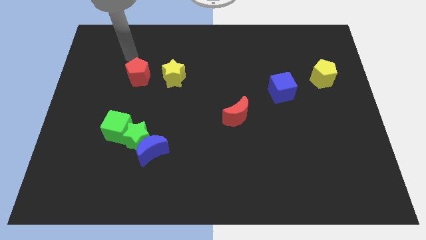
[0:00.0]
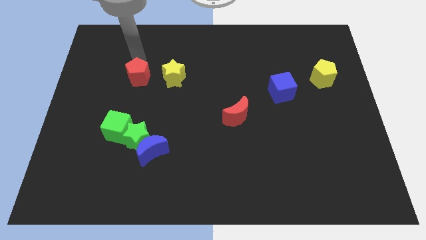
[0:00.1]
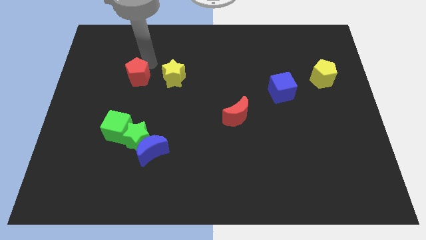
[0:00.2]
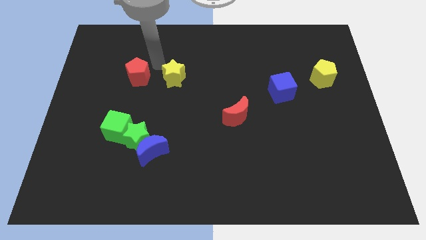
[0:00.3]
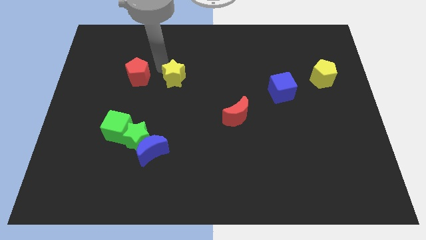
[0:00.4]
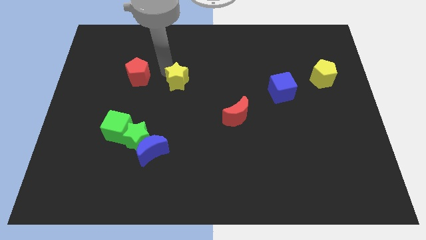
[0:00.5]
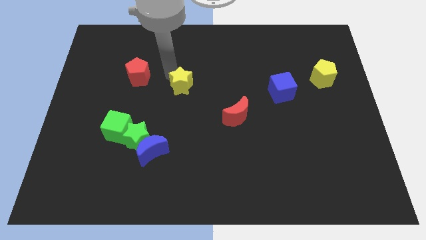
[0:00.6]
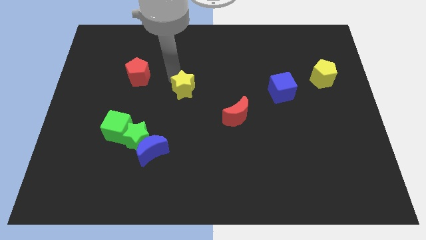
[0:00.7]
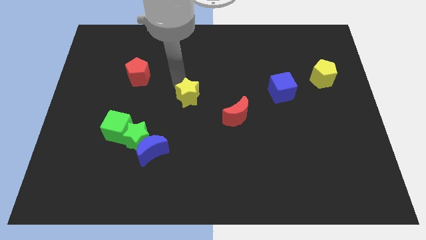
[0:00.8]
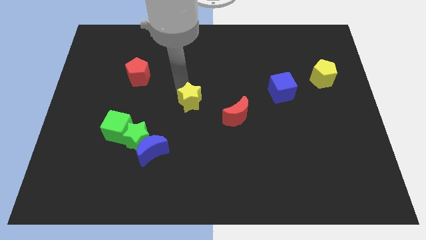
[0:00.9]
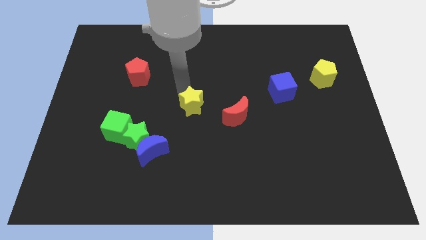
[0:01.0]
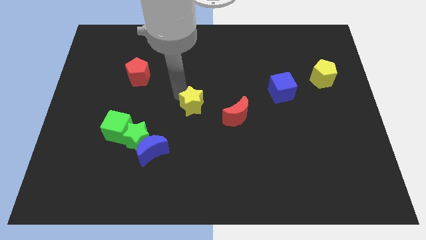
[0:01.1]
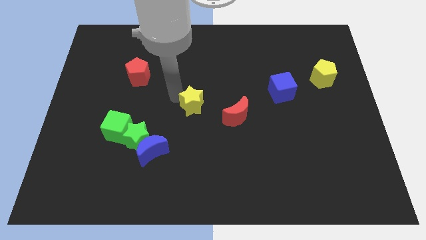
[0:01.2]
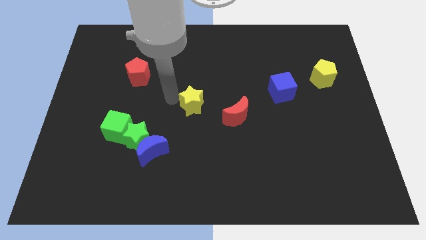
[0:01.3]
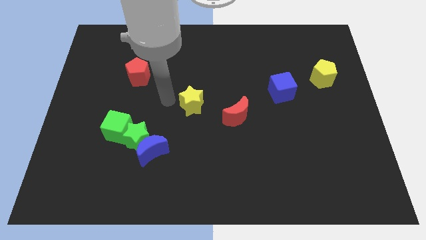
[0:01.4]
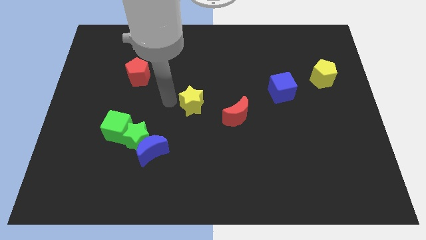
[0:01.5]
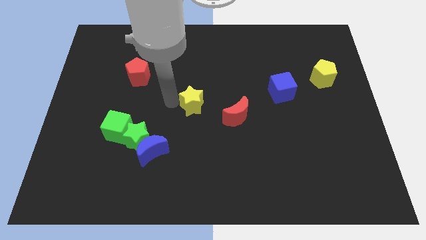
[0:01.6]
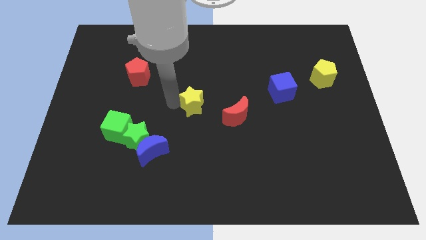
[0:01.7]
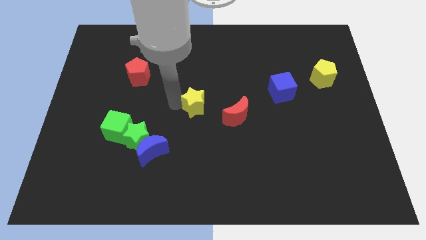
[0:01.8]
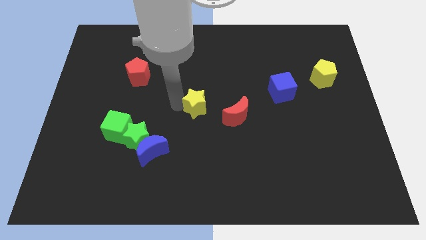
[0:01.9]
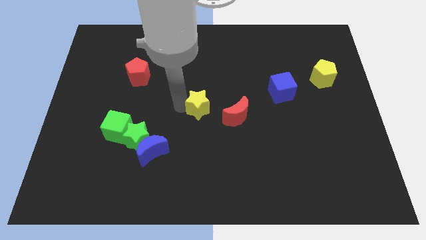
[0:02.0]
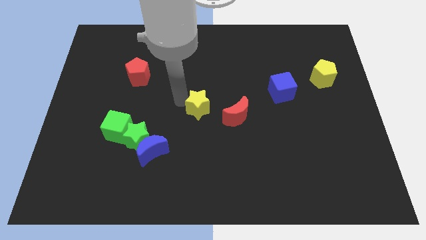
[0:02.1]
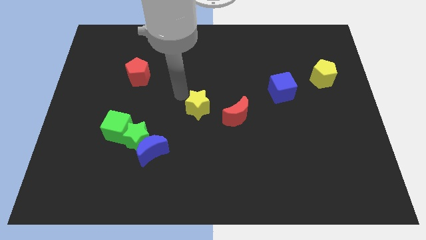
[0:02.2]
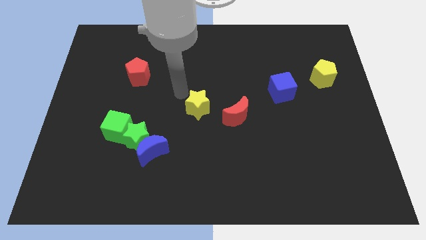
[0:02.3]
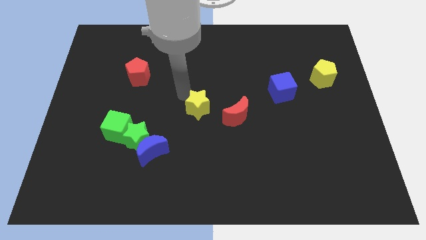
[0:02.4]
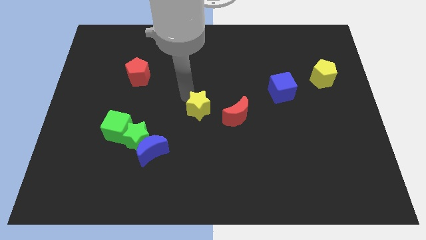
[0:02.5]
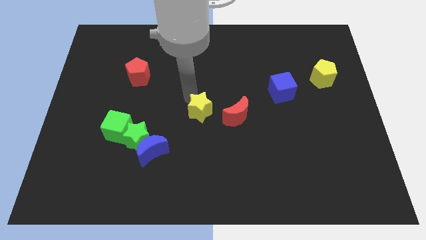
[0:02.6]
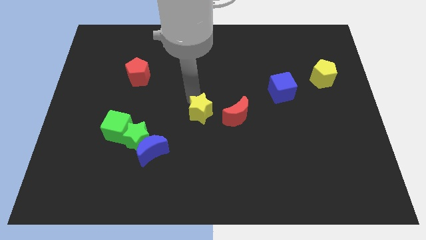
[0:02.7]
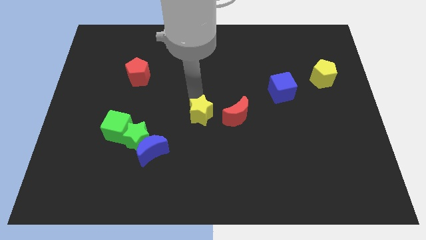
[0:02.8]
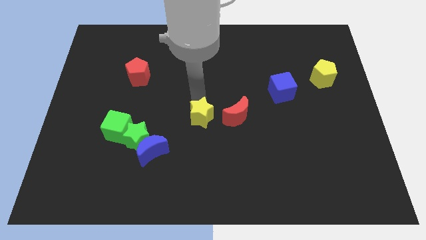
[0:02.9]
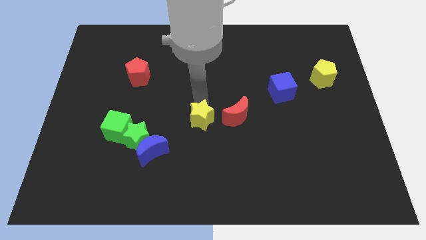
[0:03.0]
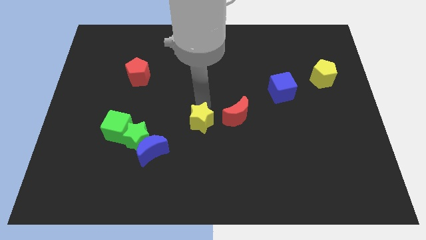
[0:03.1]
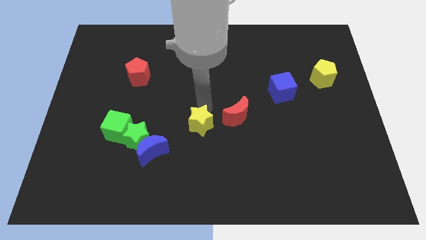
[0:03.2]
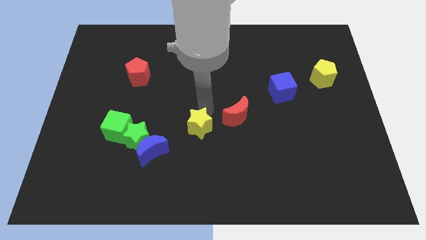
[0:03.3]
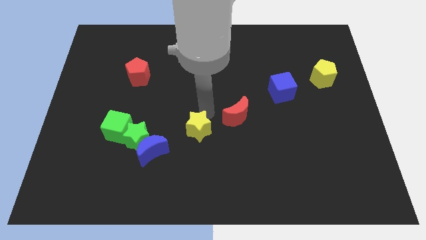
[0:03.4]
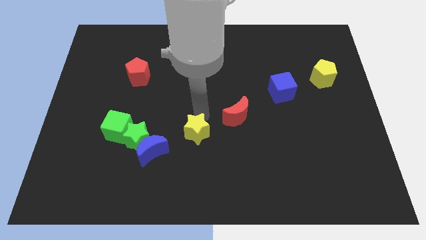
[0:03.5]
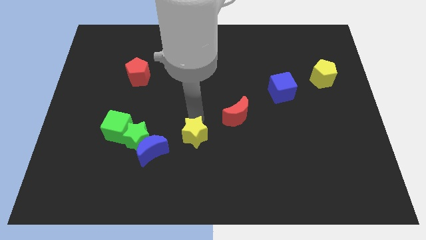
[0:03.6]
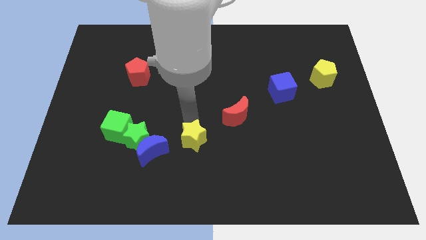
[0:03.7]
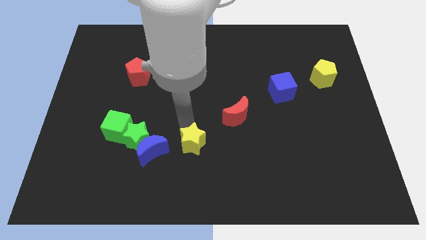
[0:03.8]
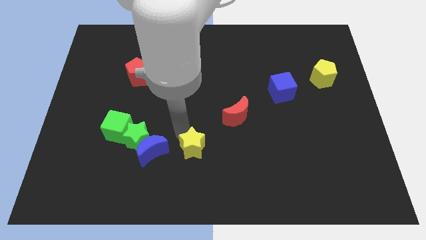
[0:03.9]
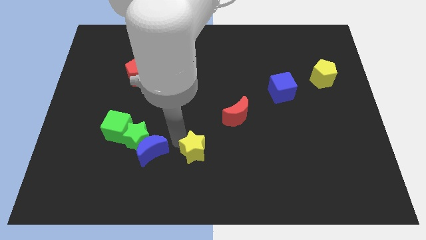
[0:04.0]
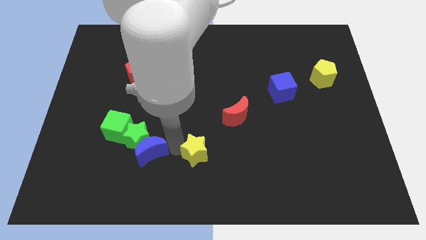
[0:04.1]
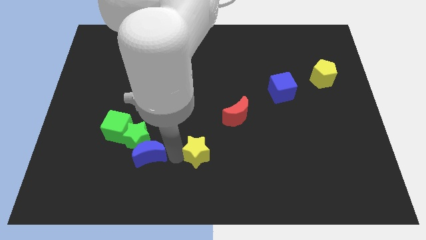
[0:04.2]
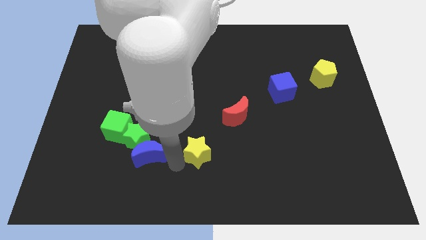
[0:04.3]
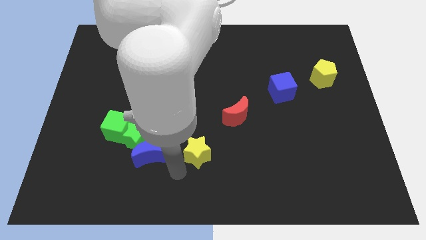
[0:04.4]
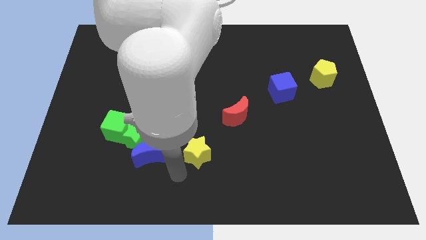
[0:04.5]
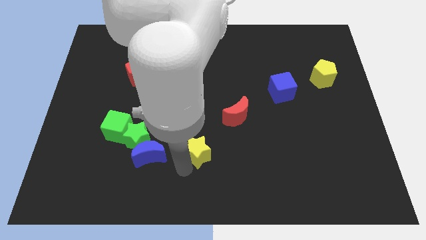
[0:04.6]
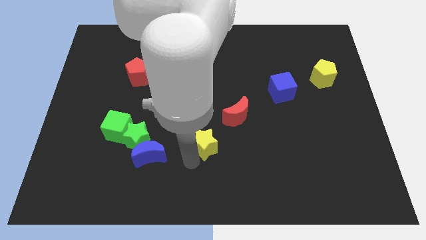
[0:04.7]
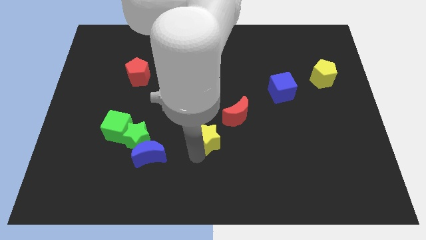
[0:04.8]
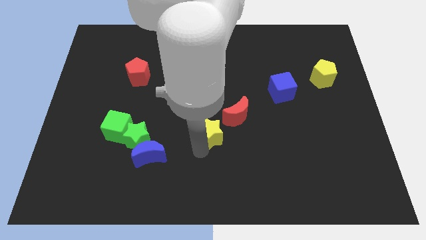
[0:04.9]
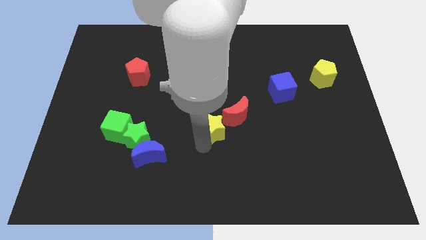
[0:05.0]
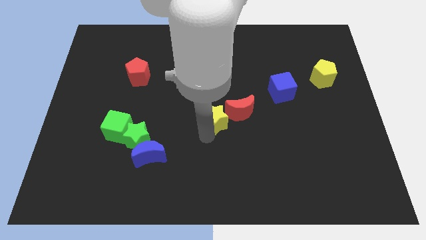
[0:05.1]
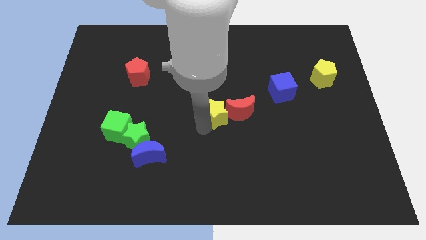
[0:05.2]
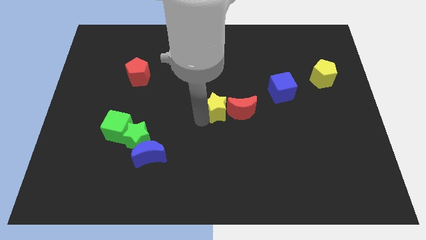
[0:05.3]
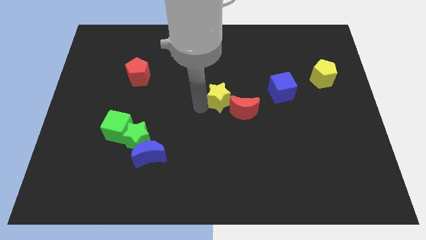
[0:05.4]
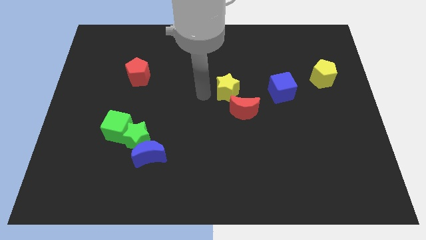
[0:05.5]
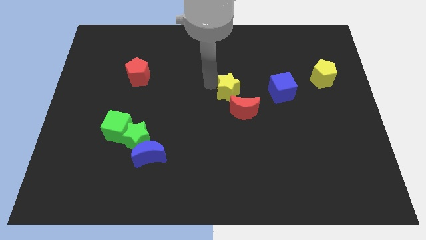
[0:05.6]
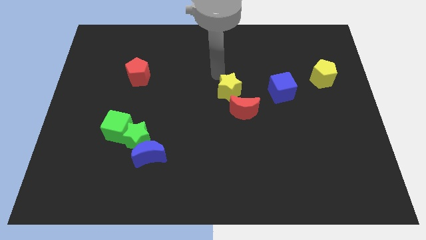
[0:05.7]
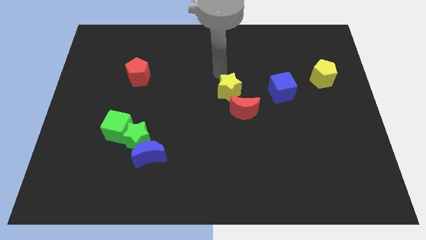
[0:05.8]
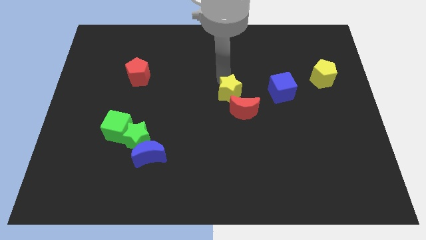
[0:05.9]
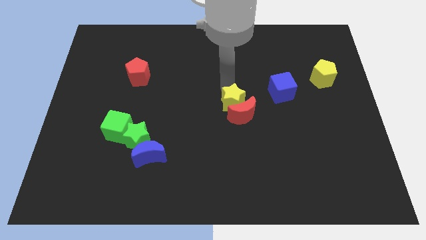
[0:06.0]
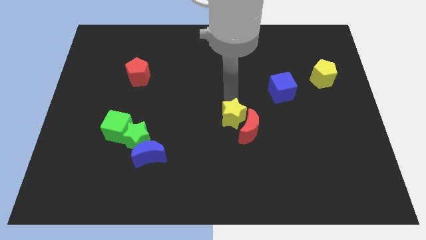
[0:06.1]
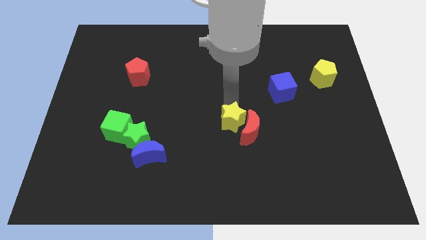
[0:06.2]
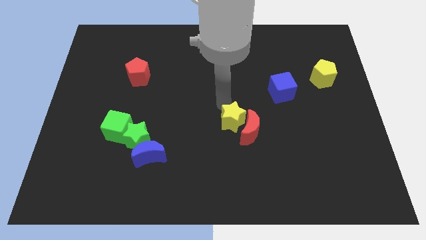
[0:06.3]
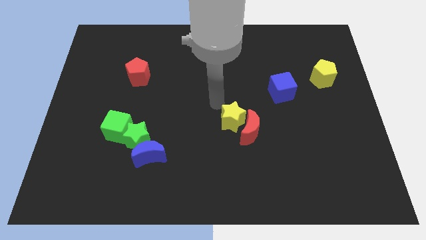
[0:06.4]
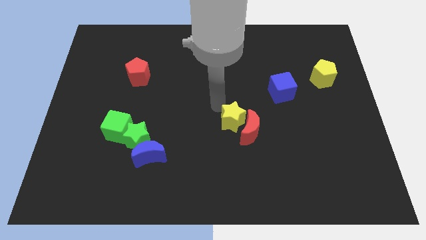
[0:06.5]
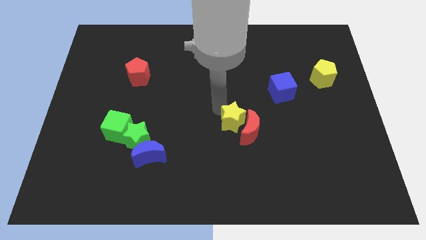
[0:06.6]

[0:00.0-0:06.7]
move the yellow star down and right

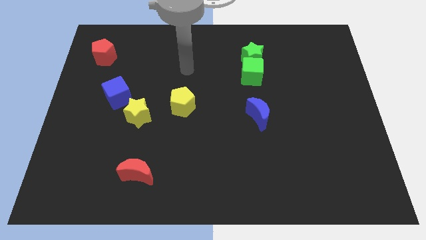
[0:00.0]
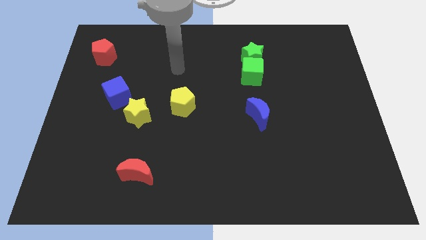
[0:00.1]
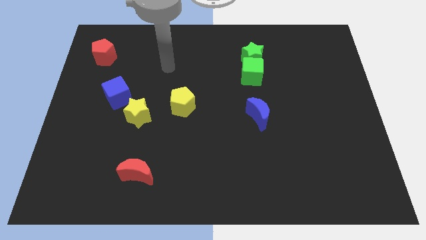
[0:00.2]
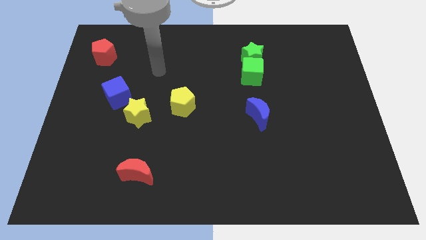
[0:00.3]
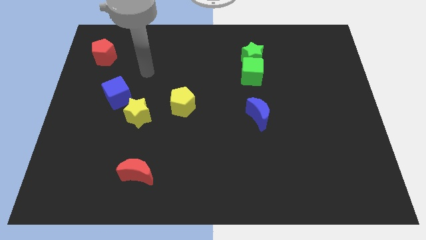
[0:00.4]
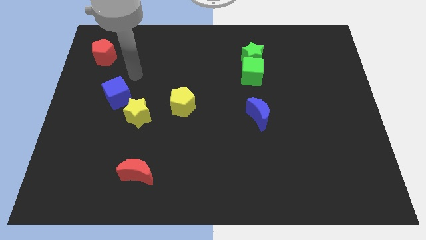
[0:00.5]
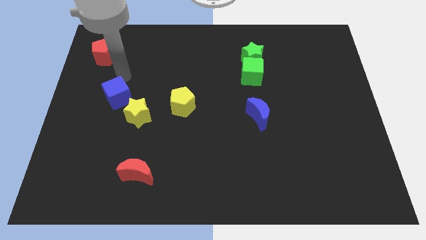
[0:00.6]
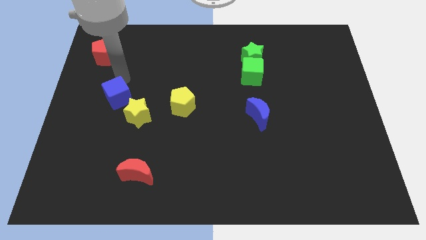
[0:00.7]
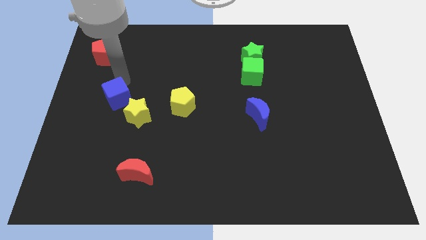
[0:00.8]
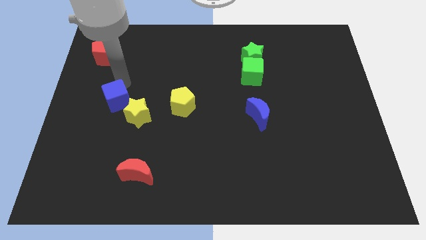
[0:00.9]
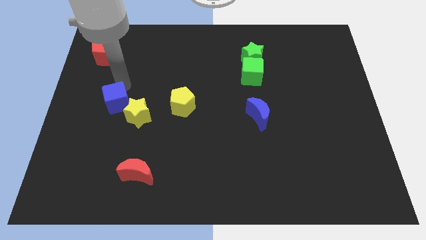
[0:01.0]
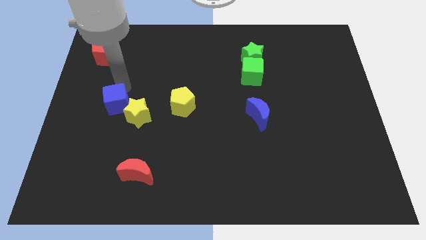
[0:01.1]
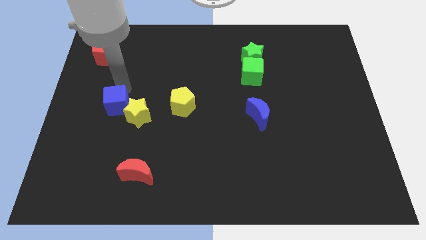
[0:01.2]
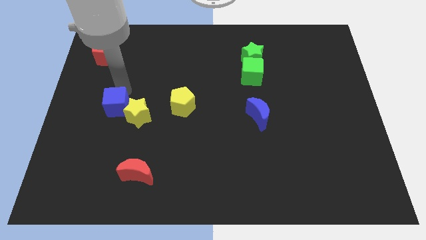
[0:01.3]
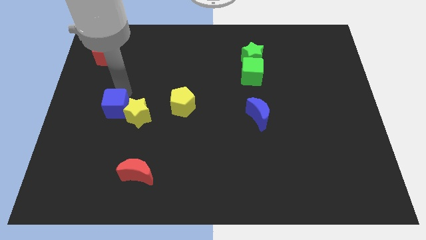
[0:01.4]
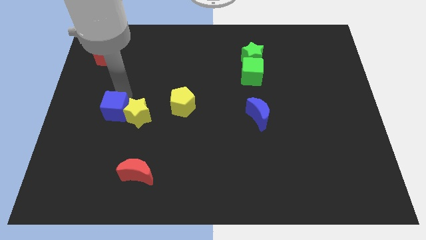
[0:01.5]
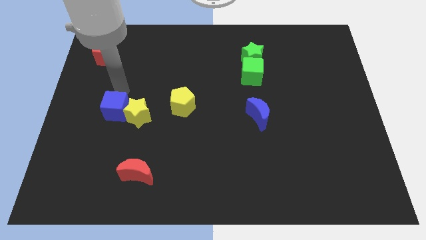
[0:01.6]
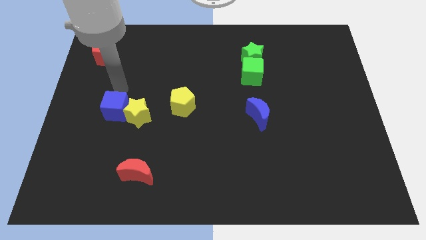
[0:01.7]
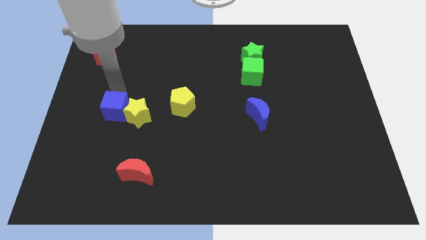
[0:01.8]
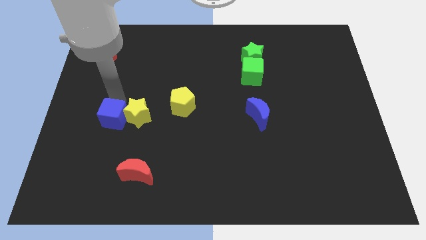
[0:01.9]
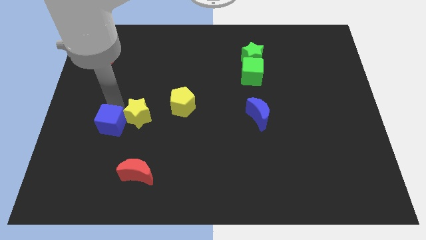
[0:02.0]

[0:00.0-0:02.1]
push the blue cube a bit downwards
